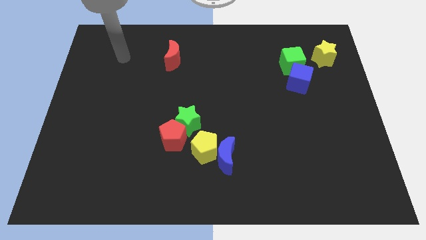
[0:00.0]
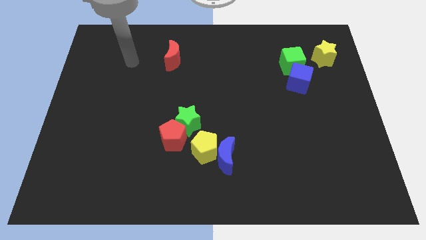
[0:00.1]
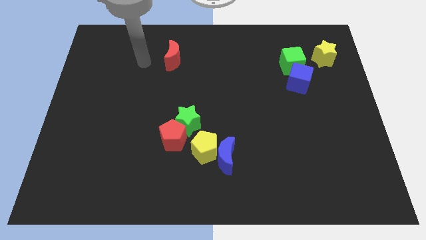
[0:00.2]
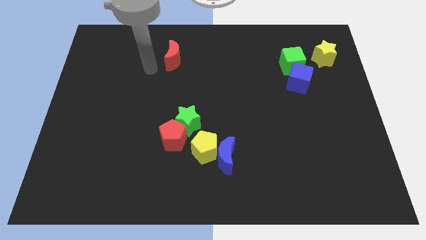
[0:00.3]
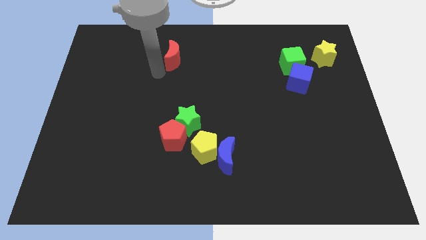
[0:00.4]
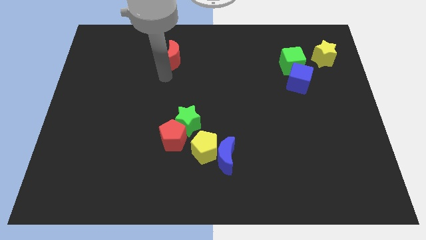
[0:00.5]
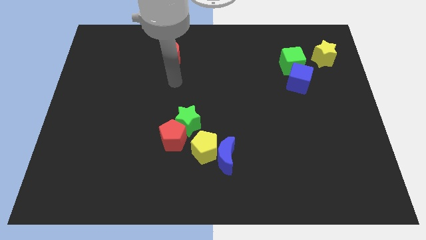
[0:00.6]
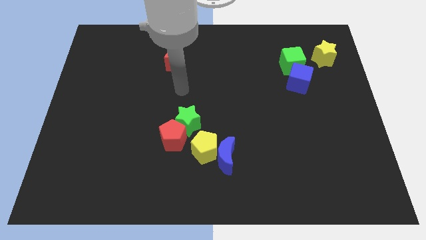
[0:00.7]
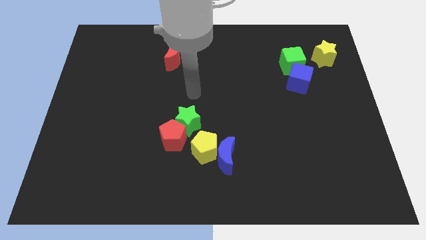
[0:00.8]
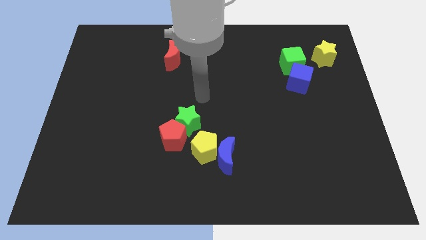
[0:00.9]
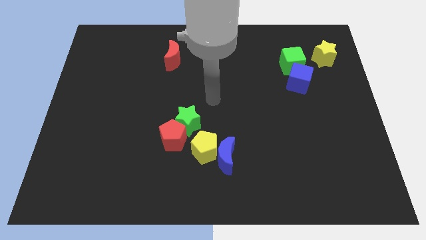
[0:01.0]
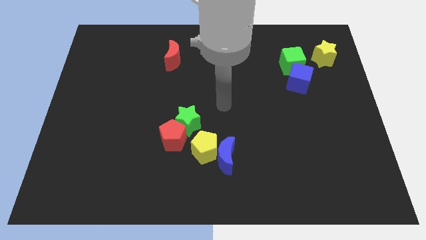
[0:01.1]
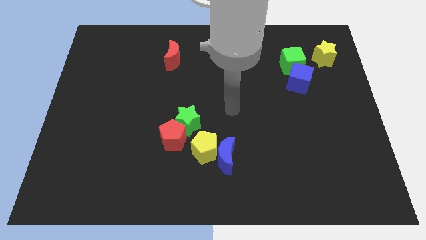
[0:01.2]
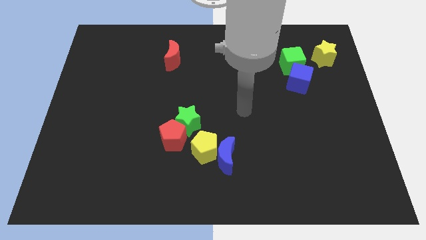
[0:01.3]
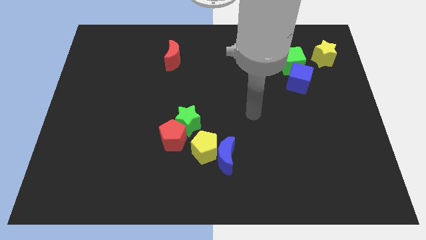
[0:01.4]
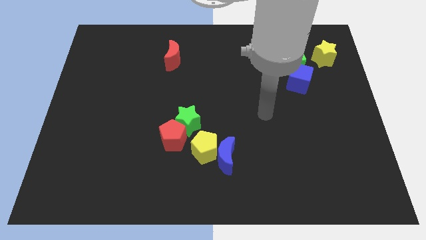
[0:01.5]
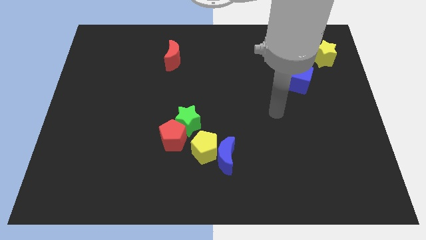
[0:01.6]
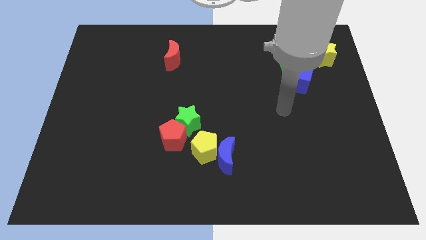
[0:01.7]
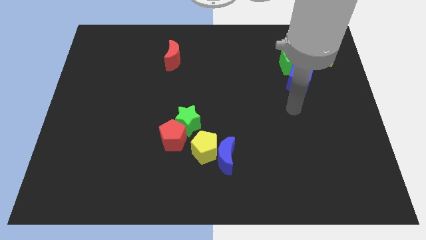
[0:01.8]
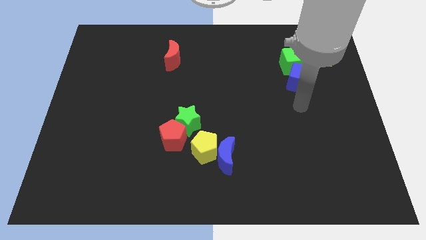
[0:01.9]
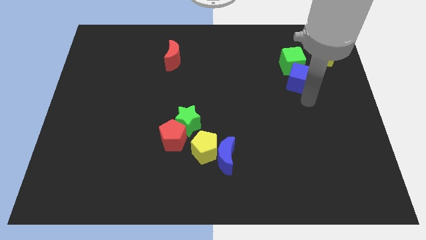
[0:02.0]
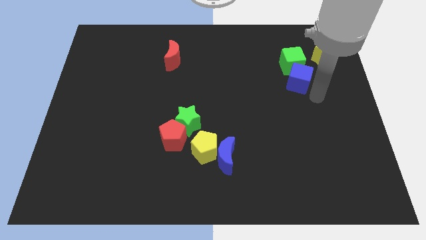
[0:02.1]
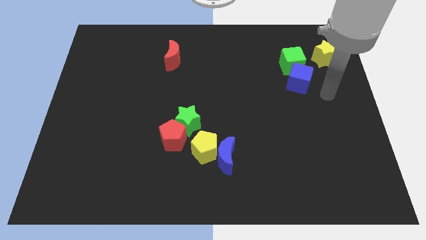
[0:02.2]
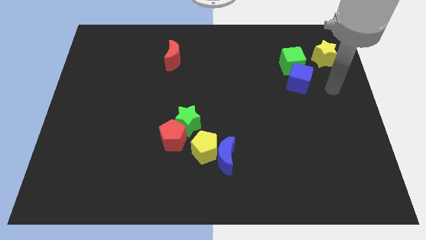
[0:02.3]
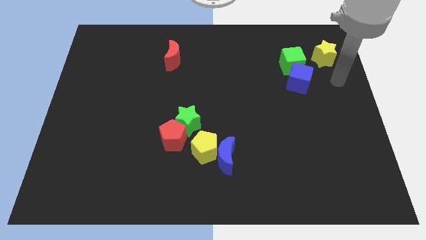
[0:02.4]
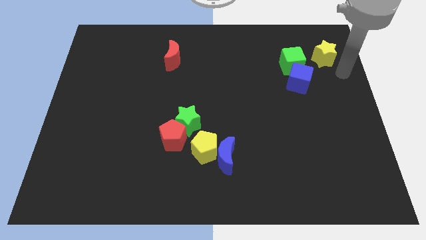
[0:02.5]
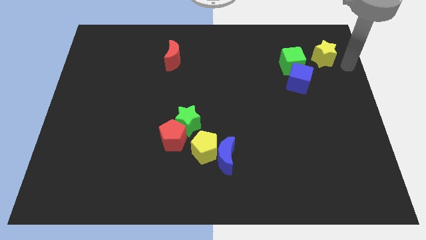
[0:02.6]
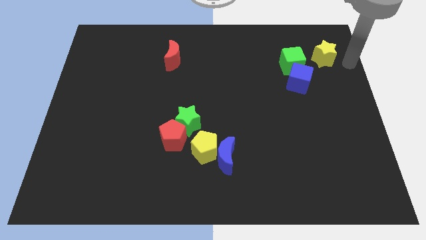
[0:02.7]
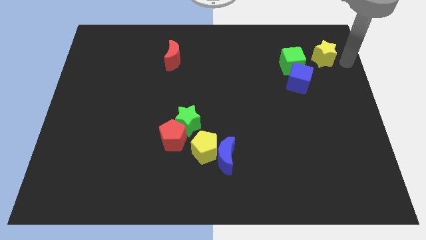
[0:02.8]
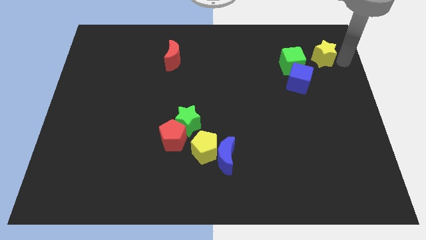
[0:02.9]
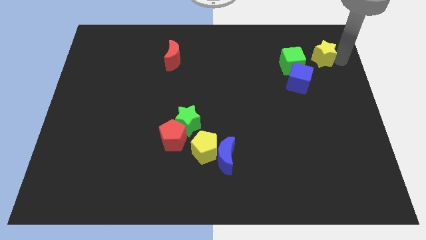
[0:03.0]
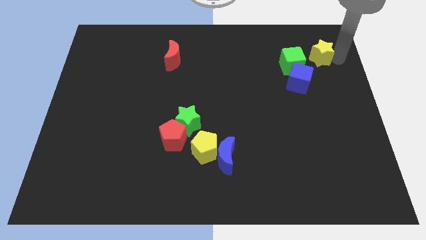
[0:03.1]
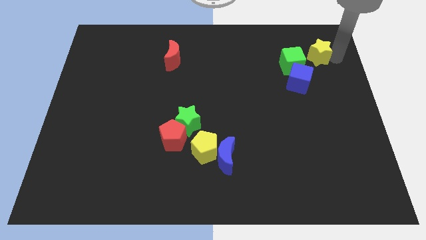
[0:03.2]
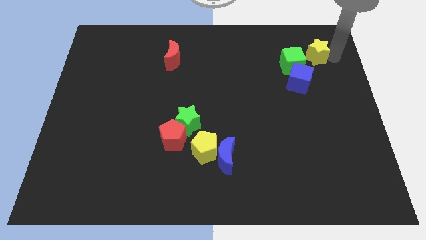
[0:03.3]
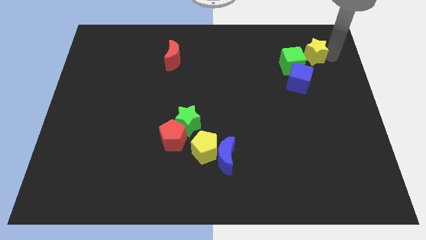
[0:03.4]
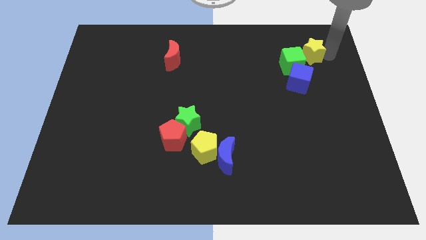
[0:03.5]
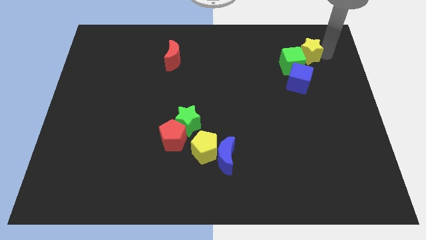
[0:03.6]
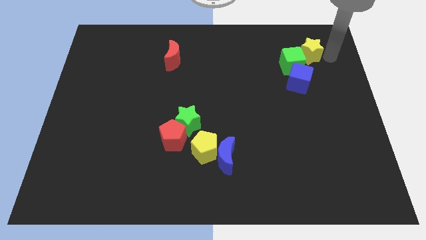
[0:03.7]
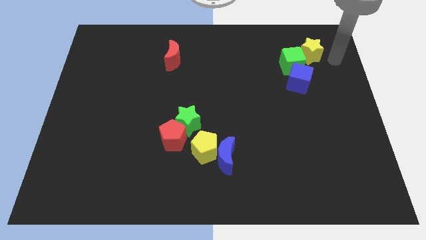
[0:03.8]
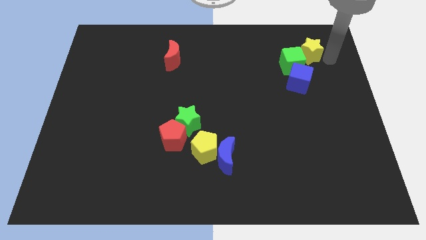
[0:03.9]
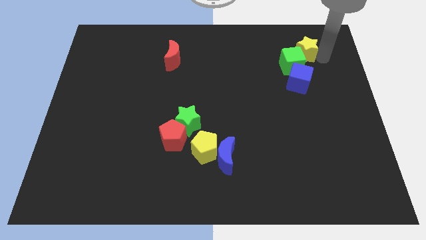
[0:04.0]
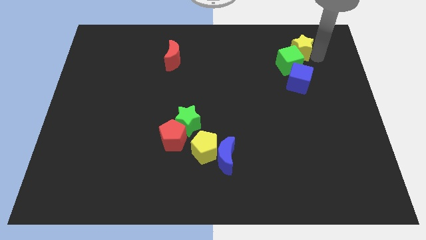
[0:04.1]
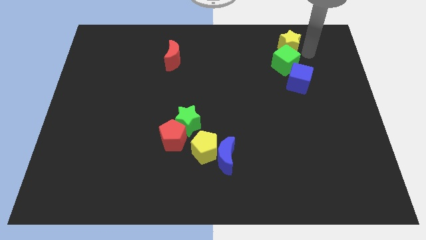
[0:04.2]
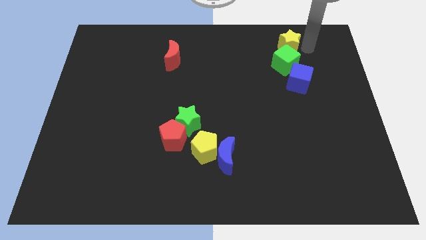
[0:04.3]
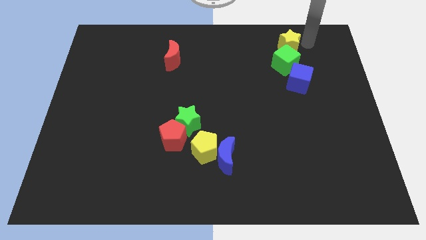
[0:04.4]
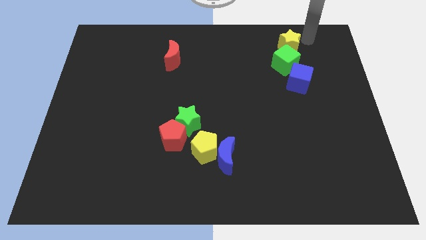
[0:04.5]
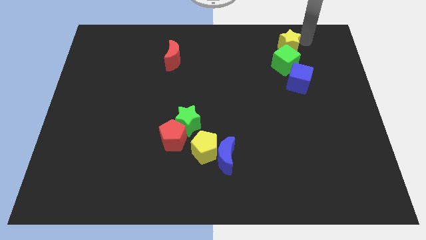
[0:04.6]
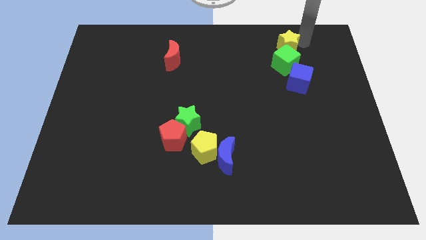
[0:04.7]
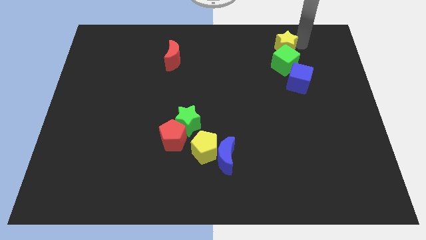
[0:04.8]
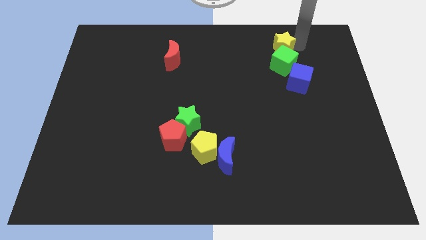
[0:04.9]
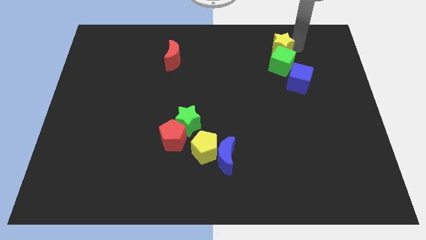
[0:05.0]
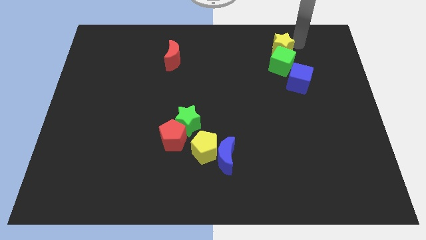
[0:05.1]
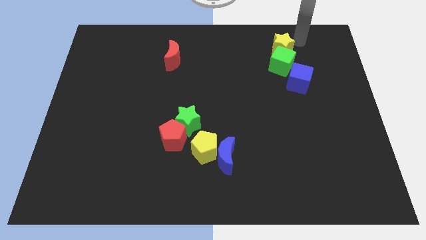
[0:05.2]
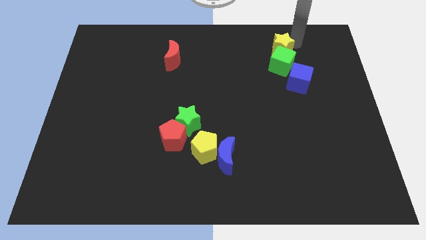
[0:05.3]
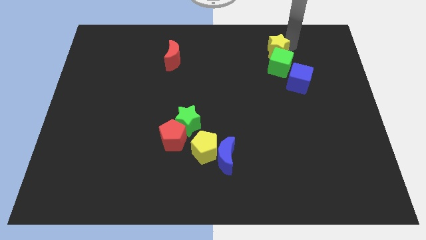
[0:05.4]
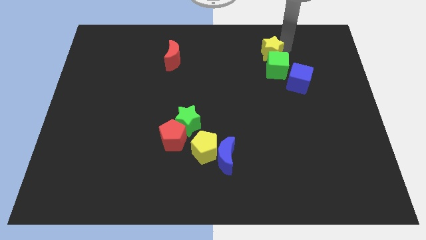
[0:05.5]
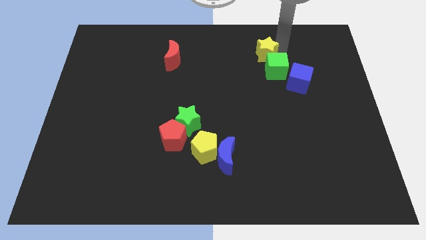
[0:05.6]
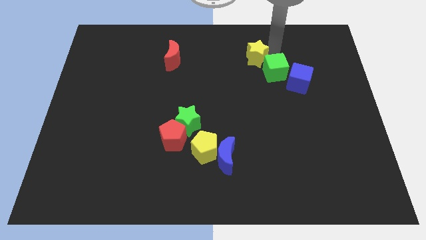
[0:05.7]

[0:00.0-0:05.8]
push the yellow star just left of the green cube
